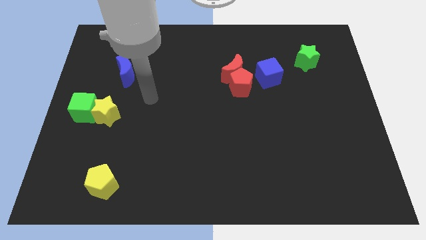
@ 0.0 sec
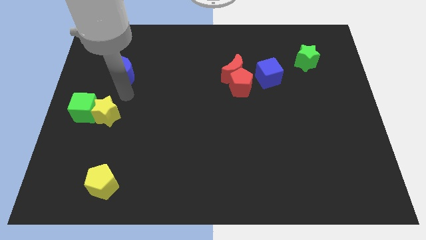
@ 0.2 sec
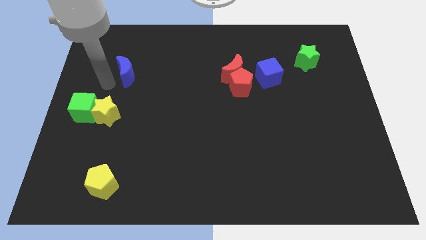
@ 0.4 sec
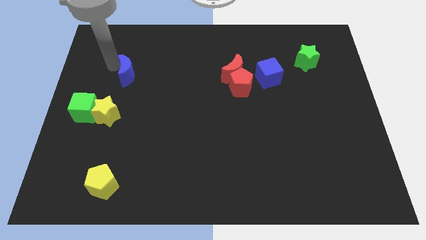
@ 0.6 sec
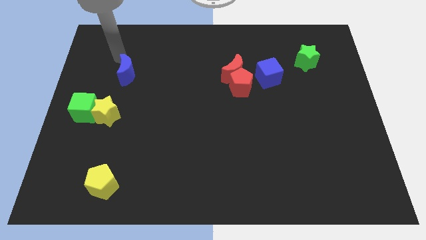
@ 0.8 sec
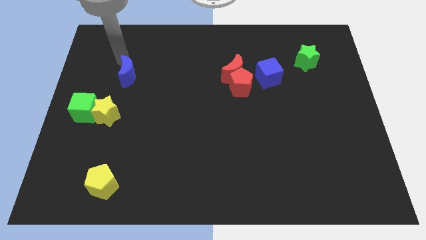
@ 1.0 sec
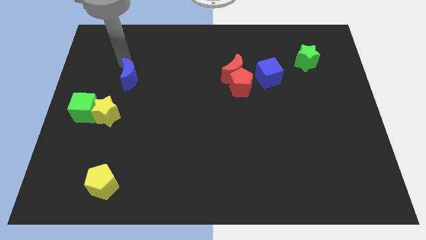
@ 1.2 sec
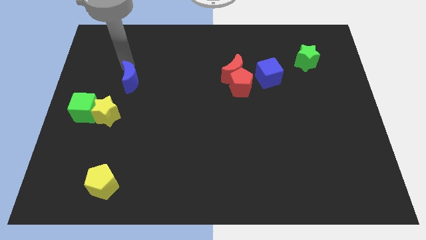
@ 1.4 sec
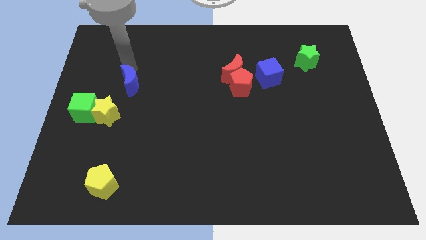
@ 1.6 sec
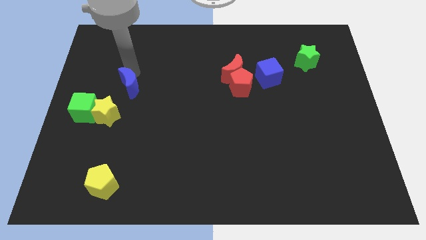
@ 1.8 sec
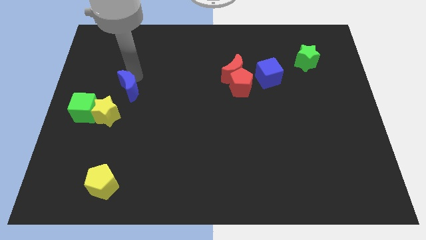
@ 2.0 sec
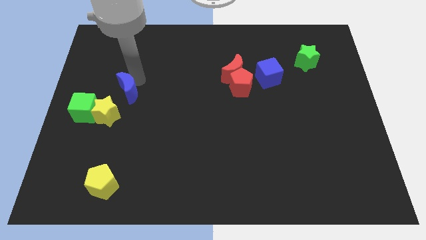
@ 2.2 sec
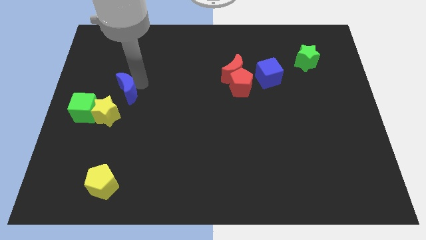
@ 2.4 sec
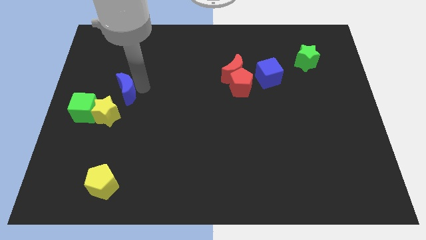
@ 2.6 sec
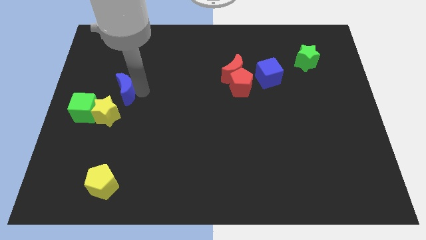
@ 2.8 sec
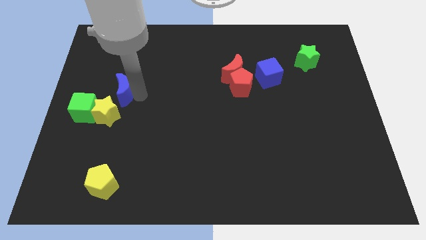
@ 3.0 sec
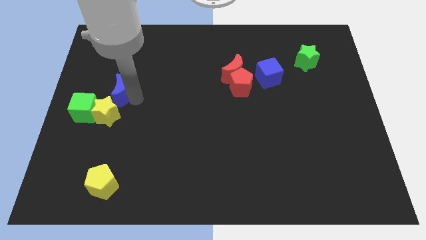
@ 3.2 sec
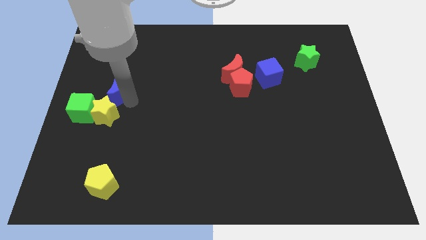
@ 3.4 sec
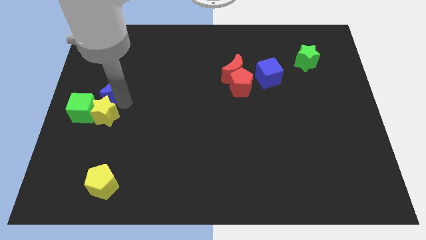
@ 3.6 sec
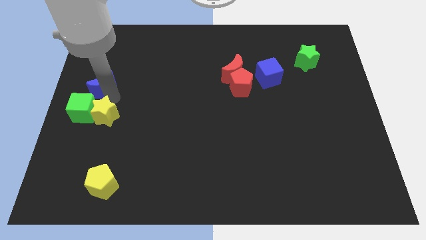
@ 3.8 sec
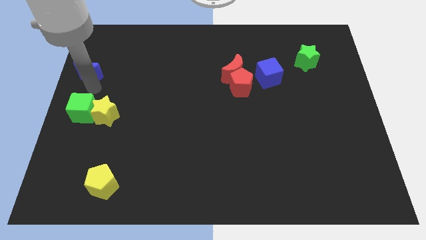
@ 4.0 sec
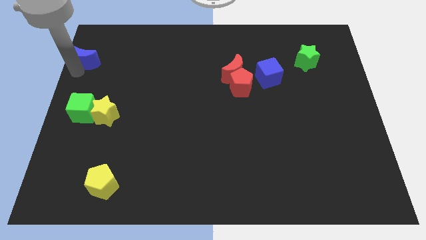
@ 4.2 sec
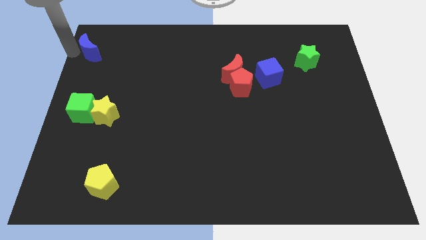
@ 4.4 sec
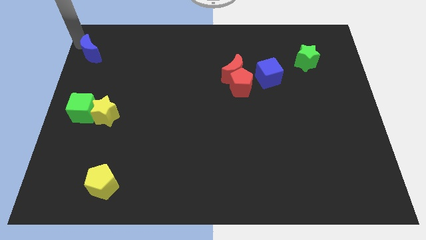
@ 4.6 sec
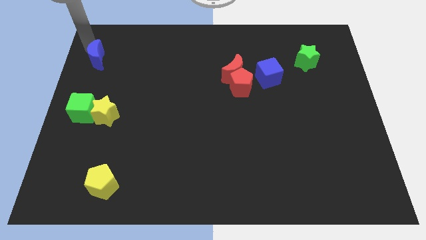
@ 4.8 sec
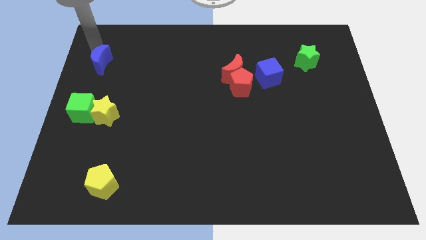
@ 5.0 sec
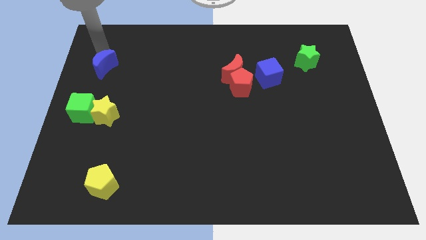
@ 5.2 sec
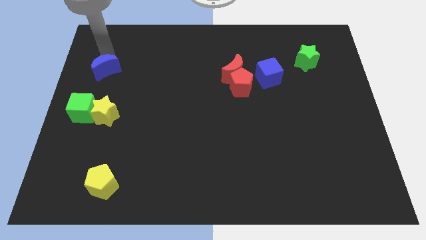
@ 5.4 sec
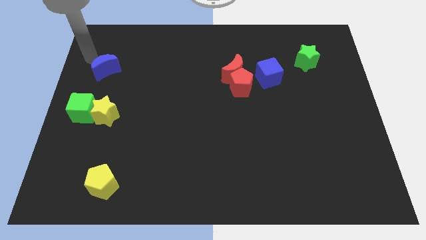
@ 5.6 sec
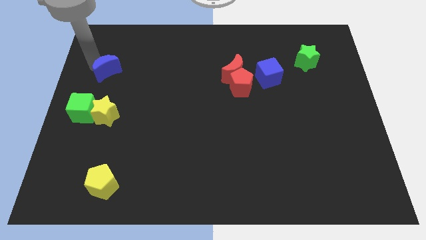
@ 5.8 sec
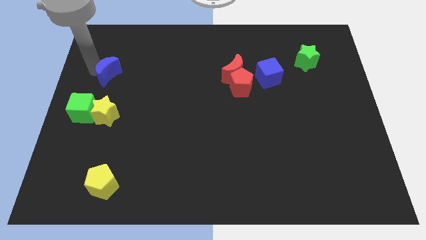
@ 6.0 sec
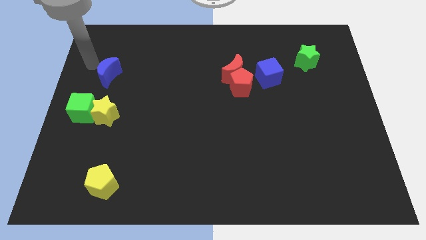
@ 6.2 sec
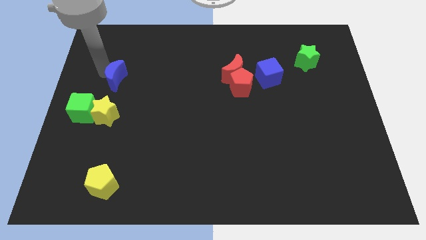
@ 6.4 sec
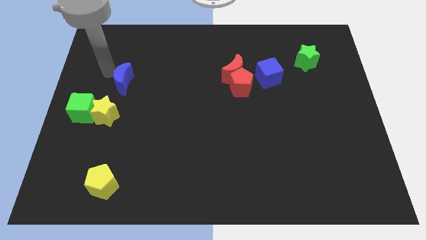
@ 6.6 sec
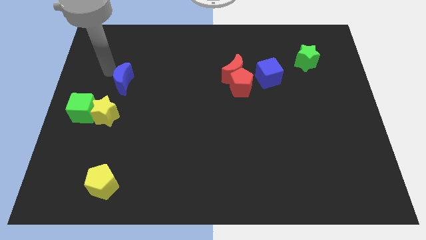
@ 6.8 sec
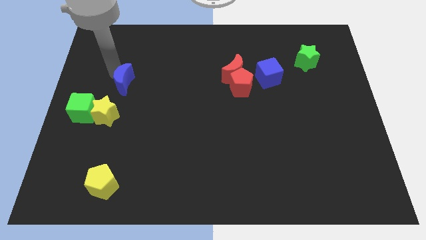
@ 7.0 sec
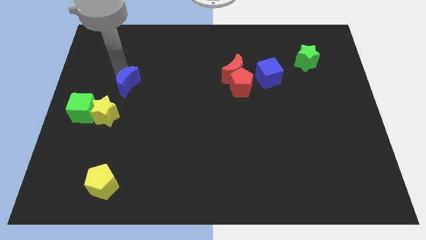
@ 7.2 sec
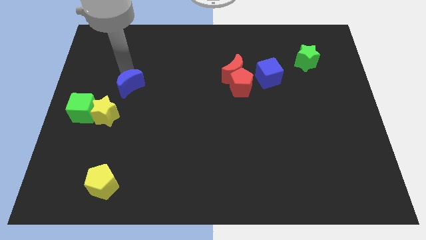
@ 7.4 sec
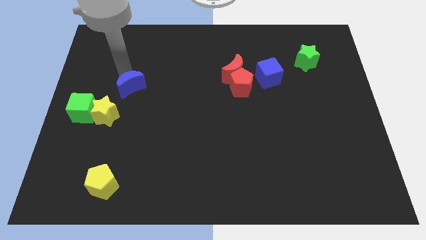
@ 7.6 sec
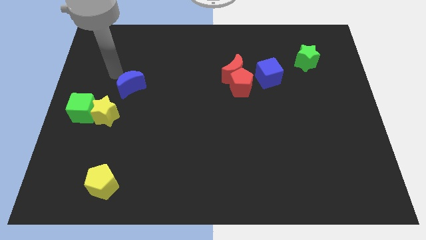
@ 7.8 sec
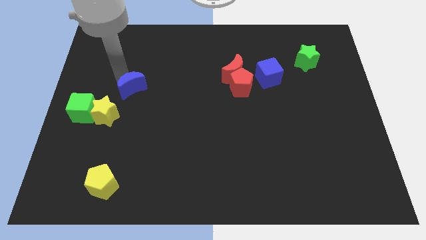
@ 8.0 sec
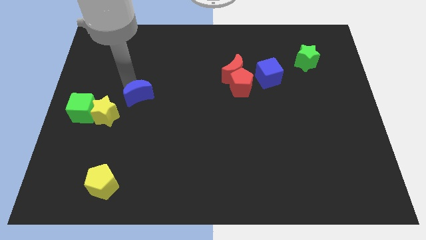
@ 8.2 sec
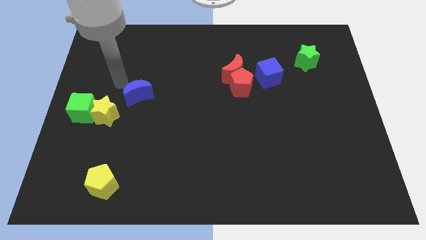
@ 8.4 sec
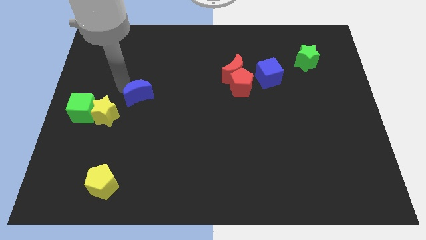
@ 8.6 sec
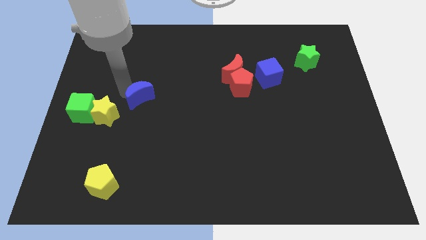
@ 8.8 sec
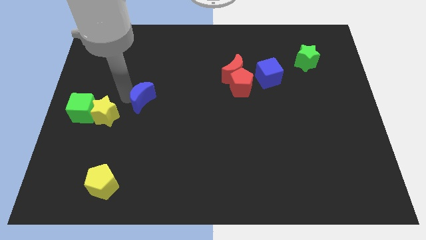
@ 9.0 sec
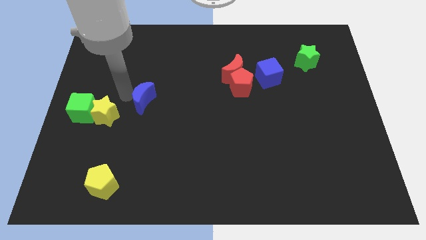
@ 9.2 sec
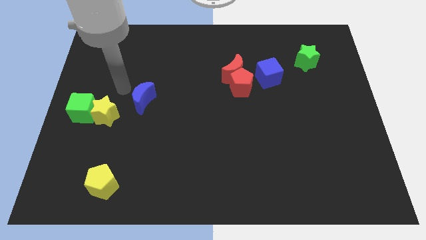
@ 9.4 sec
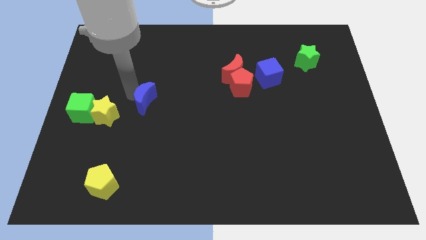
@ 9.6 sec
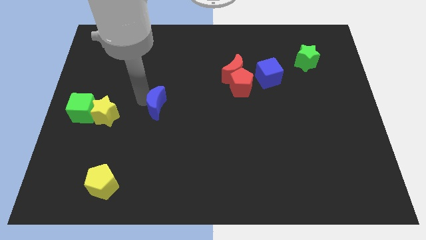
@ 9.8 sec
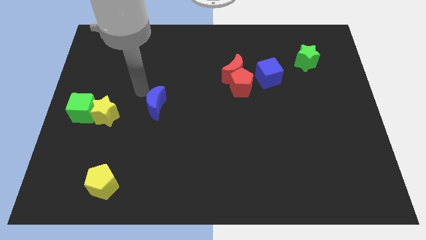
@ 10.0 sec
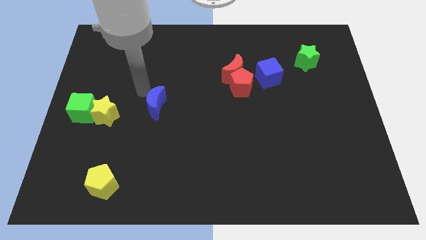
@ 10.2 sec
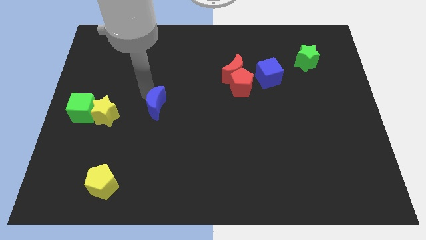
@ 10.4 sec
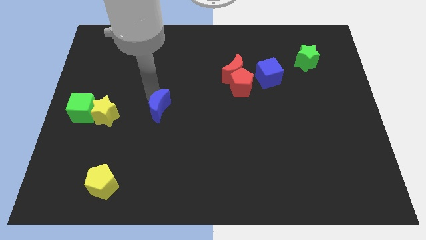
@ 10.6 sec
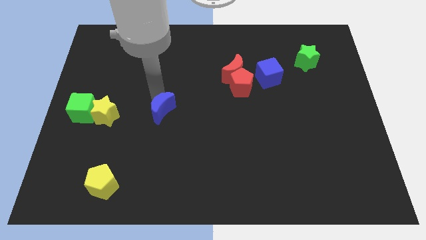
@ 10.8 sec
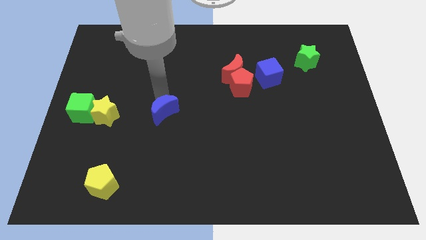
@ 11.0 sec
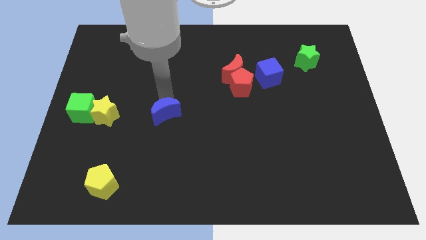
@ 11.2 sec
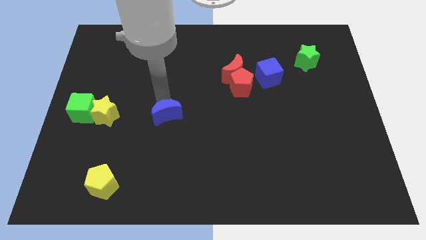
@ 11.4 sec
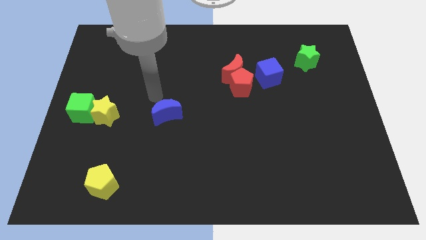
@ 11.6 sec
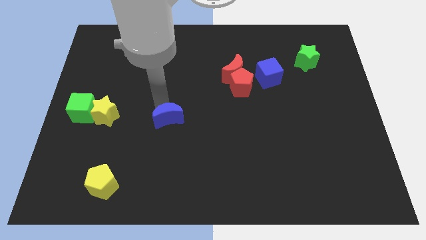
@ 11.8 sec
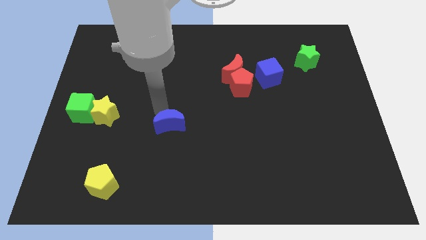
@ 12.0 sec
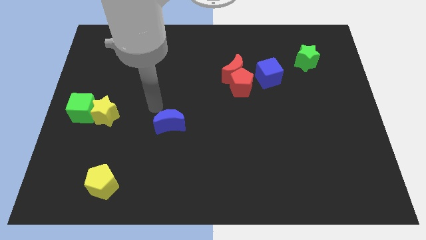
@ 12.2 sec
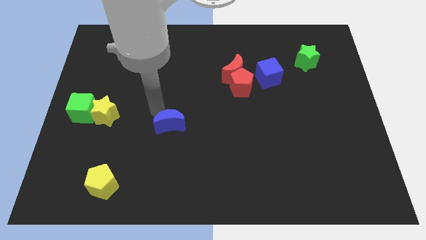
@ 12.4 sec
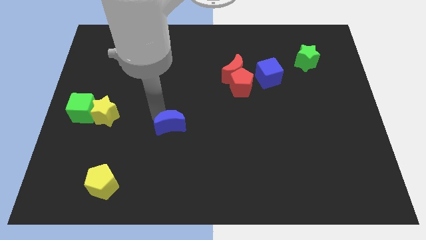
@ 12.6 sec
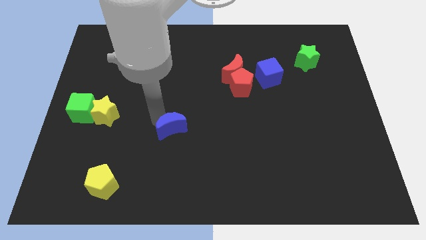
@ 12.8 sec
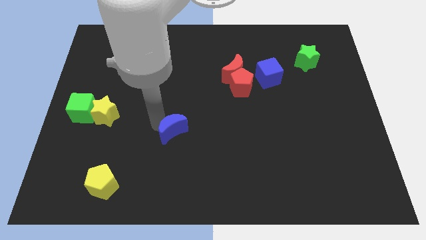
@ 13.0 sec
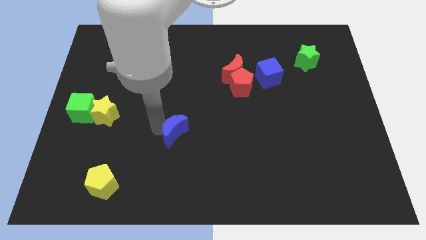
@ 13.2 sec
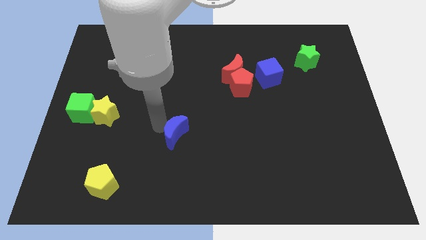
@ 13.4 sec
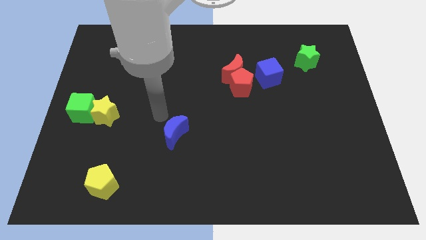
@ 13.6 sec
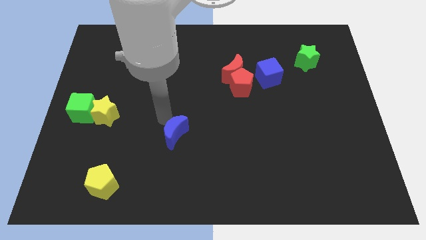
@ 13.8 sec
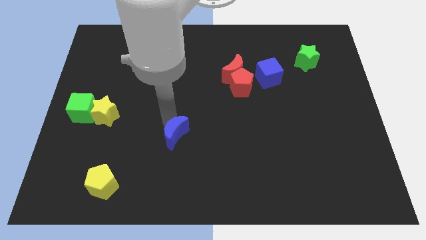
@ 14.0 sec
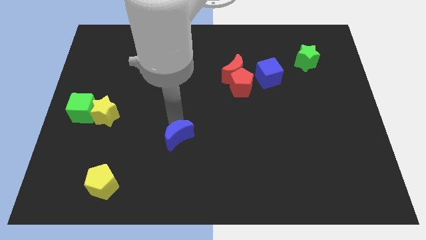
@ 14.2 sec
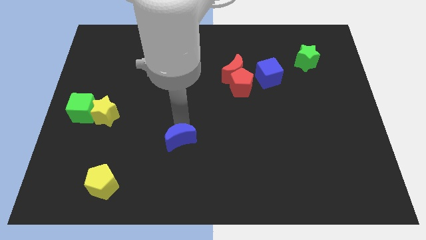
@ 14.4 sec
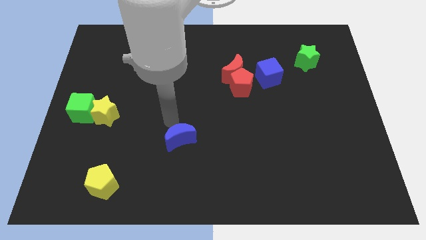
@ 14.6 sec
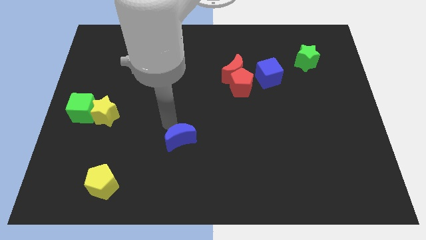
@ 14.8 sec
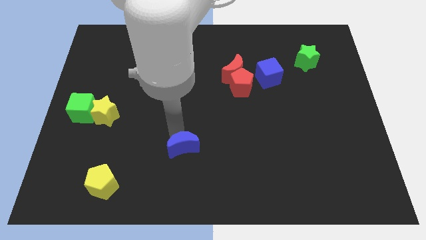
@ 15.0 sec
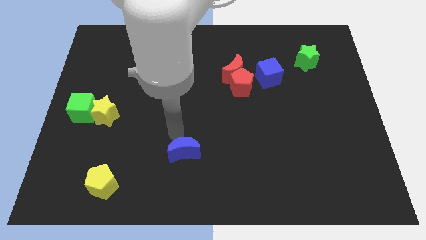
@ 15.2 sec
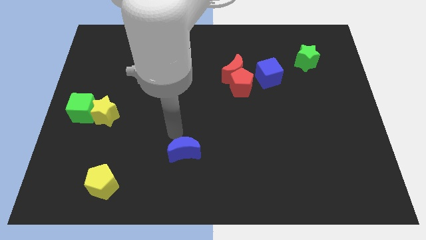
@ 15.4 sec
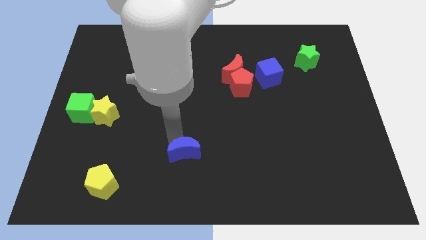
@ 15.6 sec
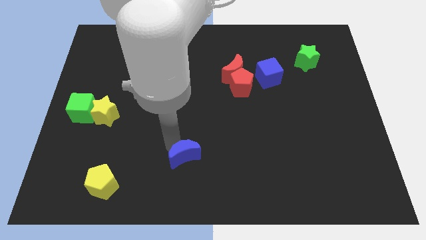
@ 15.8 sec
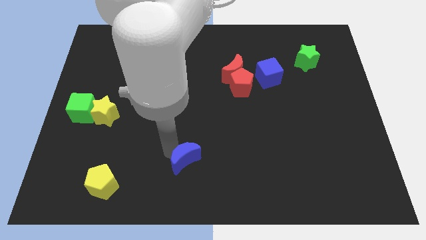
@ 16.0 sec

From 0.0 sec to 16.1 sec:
slide the blue moon to the bottom side
